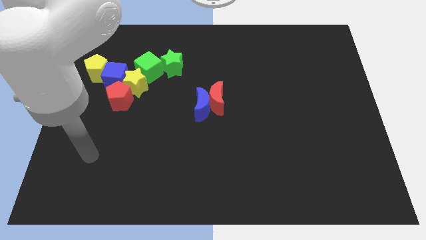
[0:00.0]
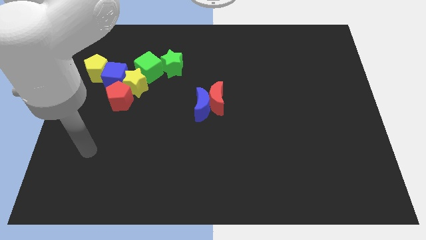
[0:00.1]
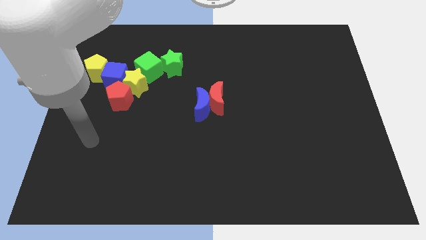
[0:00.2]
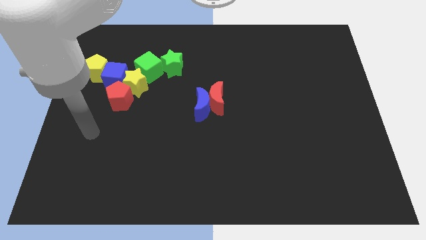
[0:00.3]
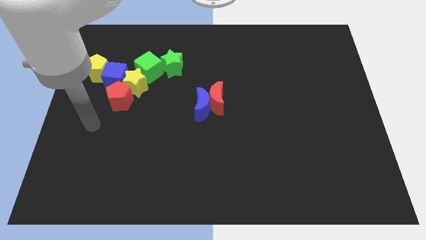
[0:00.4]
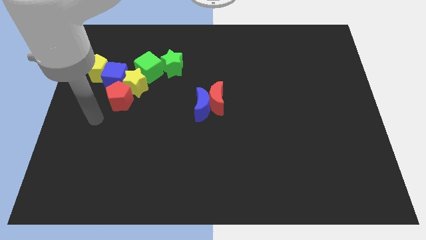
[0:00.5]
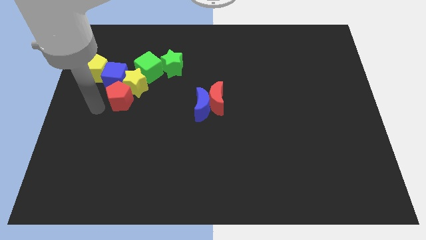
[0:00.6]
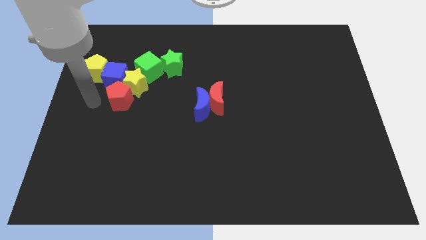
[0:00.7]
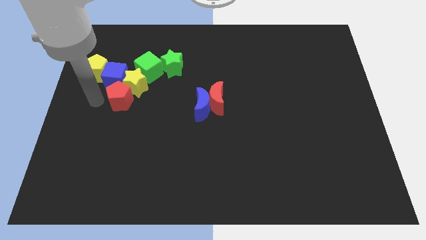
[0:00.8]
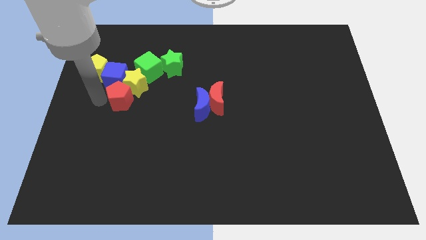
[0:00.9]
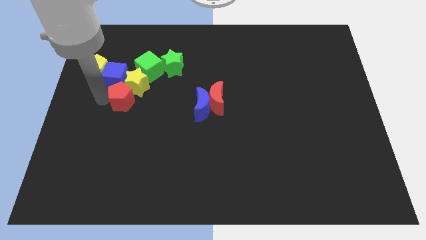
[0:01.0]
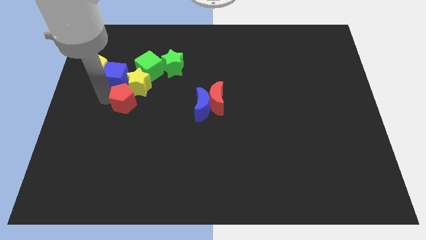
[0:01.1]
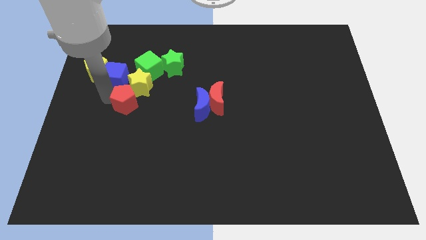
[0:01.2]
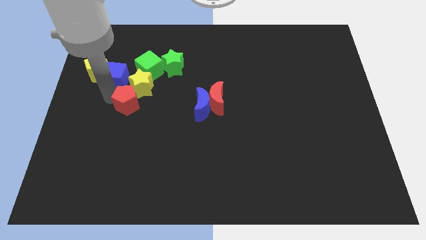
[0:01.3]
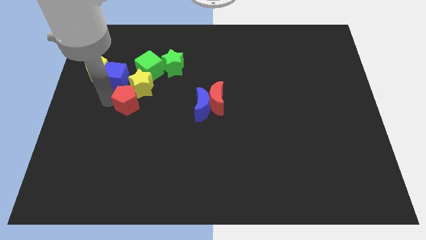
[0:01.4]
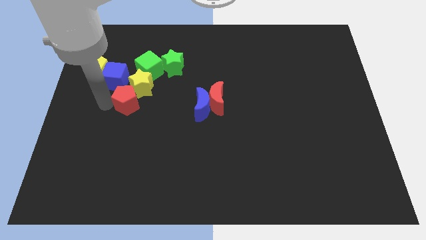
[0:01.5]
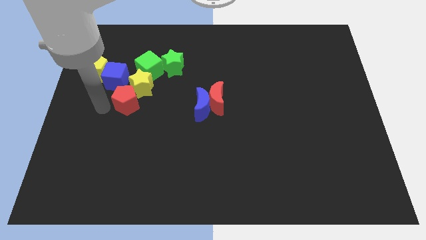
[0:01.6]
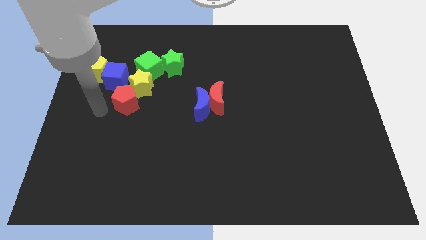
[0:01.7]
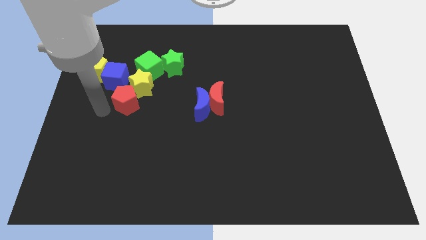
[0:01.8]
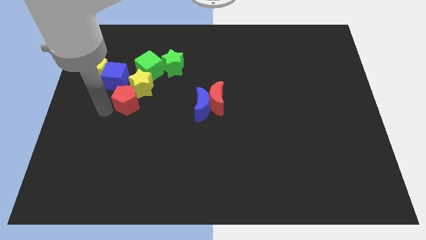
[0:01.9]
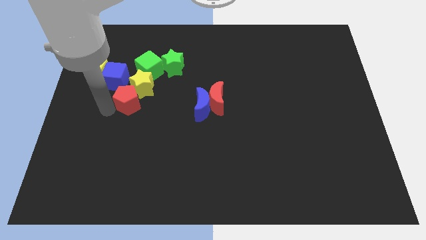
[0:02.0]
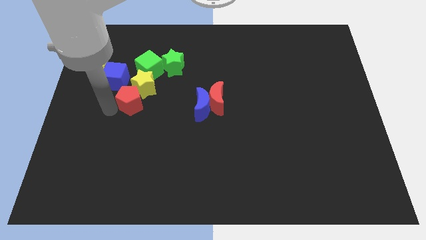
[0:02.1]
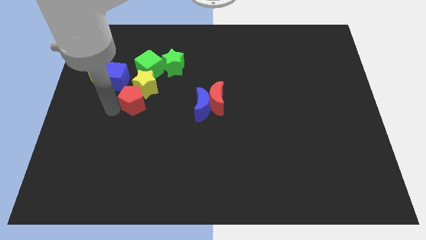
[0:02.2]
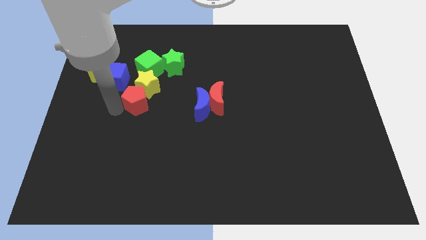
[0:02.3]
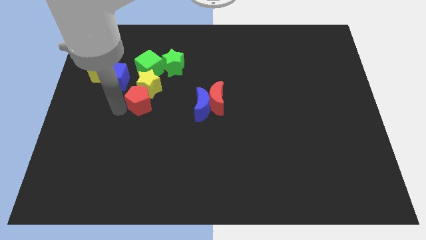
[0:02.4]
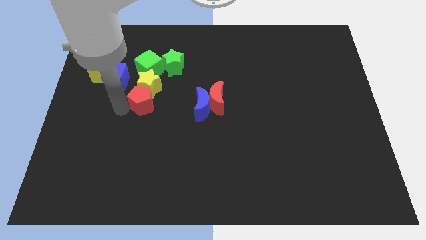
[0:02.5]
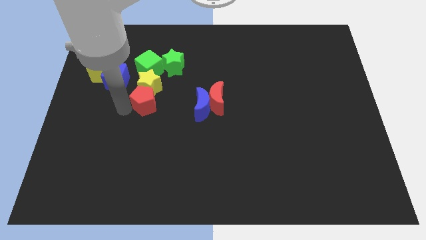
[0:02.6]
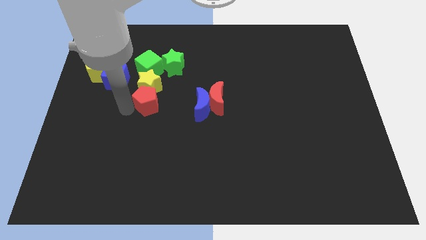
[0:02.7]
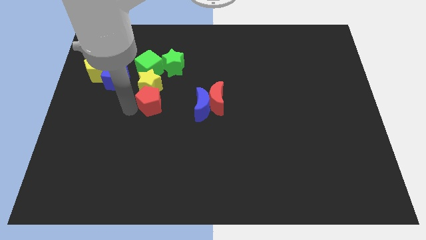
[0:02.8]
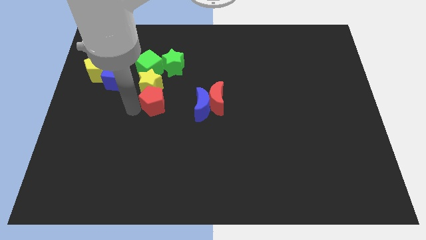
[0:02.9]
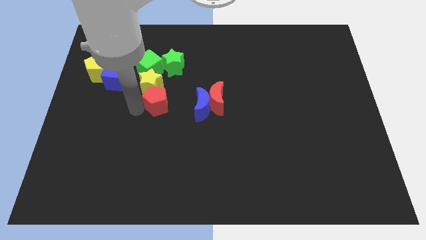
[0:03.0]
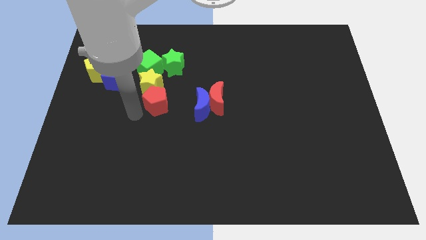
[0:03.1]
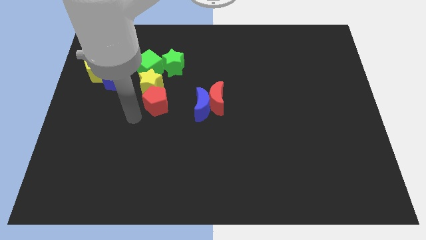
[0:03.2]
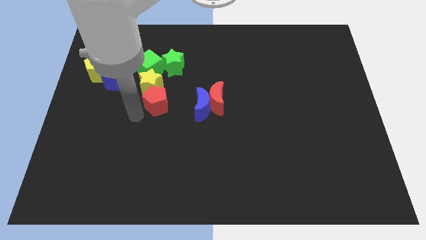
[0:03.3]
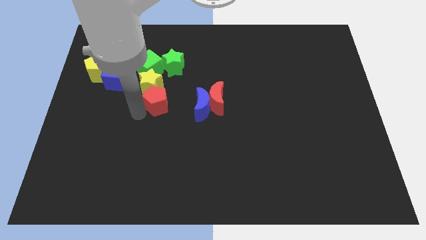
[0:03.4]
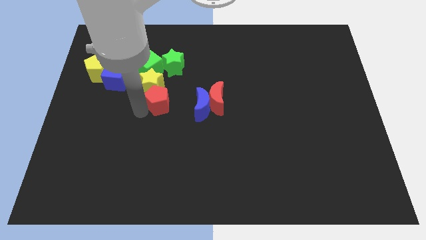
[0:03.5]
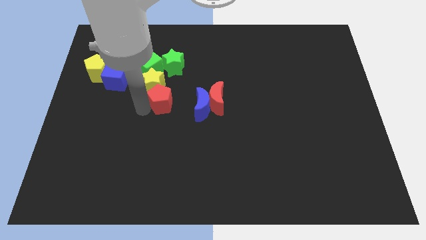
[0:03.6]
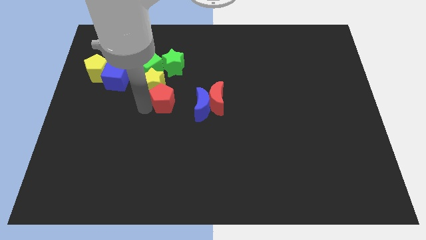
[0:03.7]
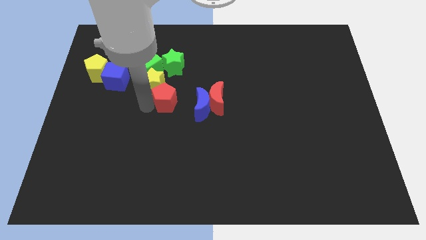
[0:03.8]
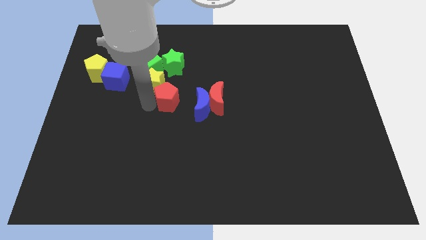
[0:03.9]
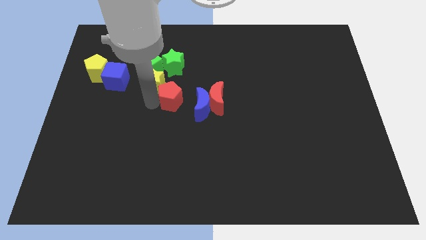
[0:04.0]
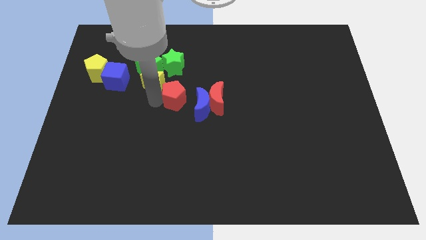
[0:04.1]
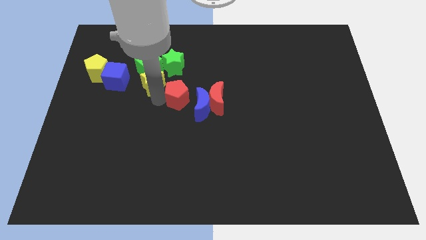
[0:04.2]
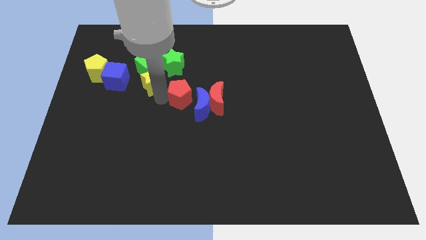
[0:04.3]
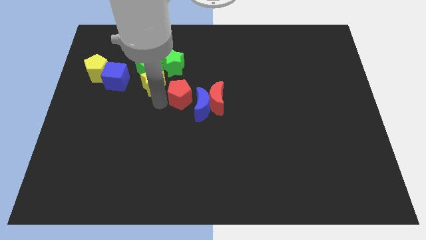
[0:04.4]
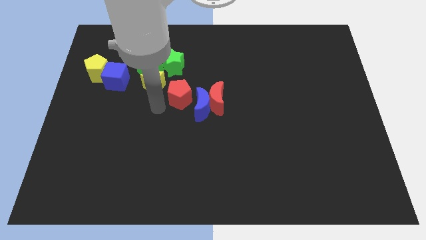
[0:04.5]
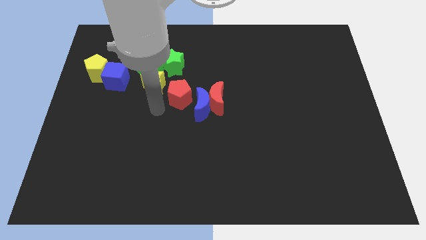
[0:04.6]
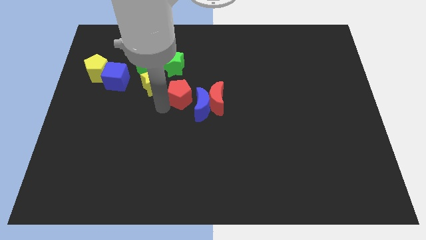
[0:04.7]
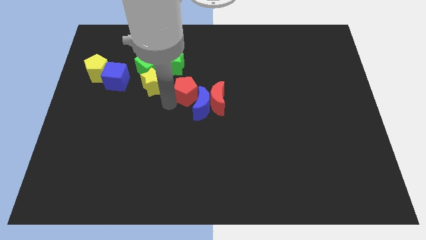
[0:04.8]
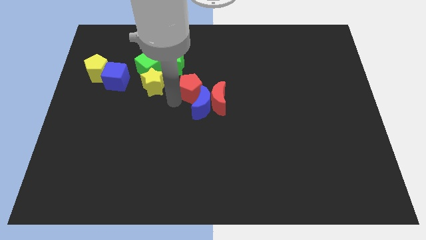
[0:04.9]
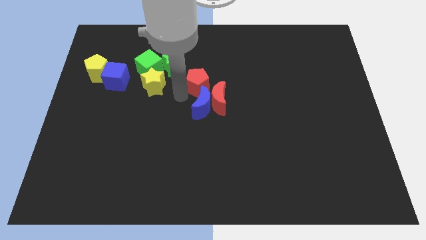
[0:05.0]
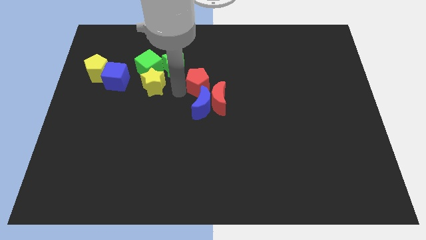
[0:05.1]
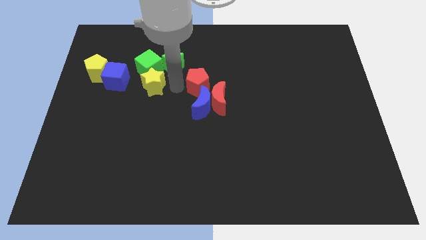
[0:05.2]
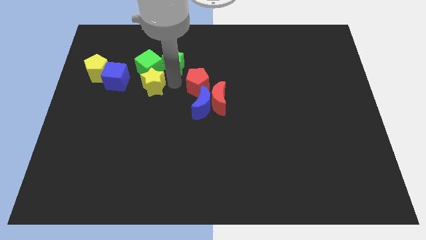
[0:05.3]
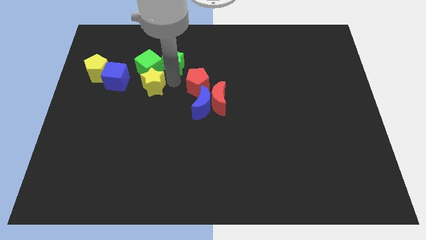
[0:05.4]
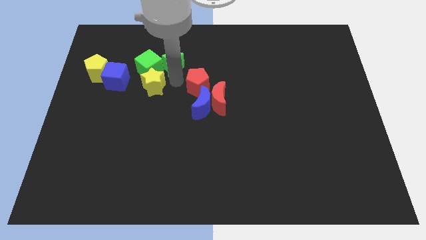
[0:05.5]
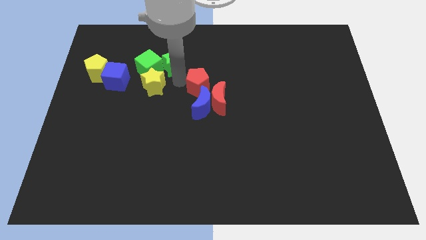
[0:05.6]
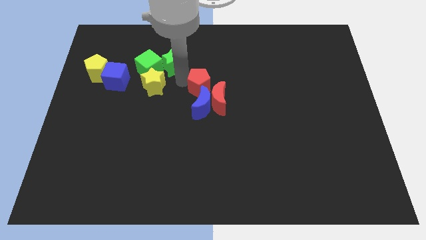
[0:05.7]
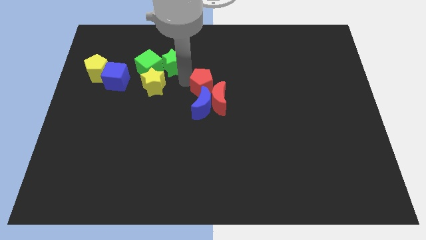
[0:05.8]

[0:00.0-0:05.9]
put the red pentagon to the top right side of the blue moon

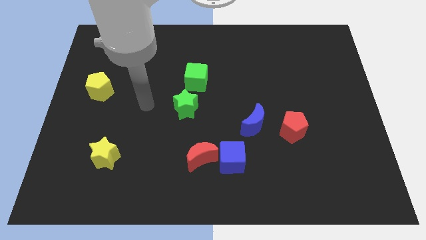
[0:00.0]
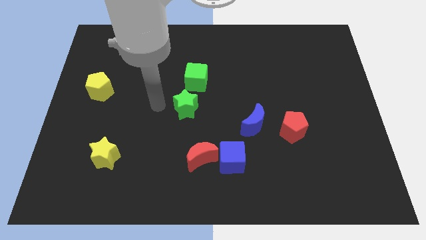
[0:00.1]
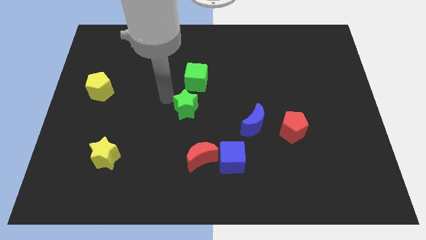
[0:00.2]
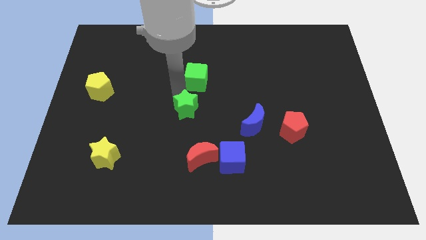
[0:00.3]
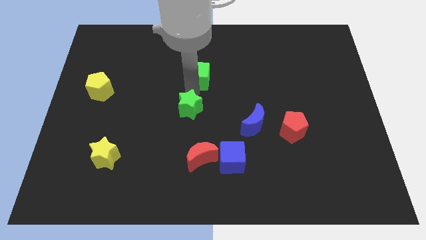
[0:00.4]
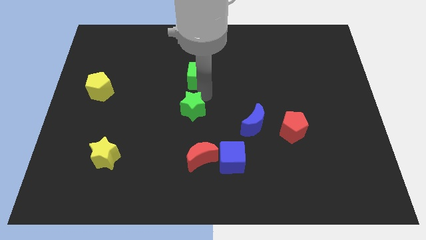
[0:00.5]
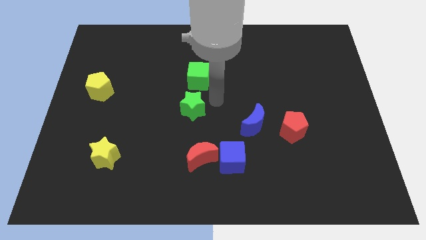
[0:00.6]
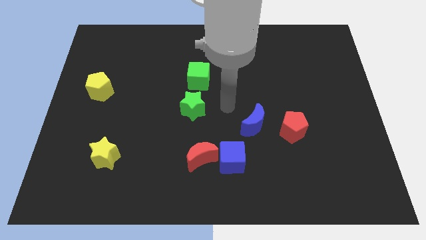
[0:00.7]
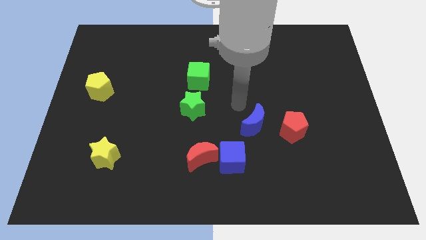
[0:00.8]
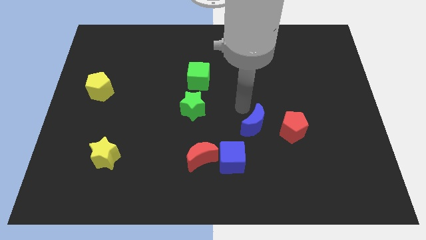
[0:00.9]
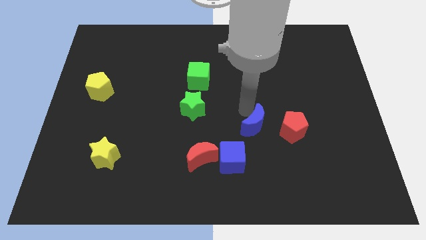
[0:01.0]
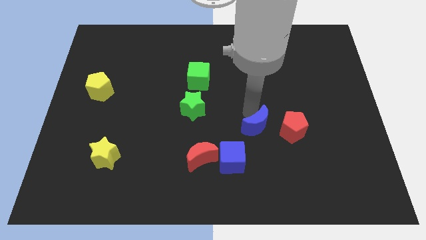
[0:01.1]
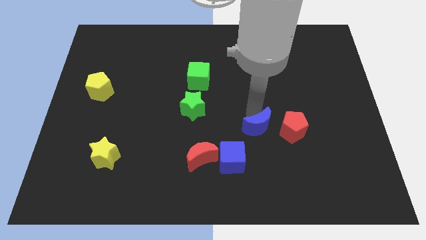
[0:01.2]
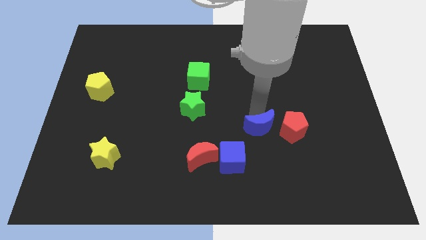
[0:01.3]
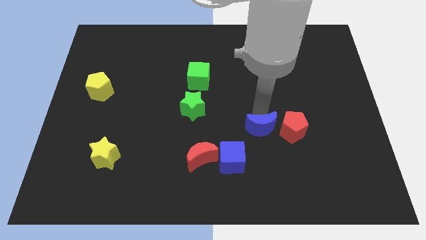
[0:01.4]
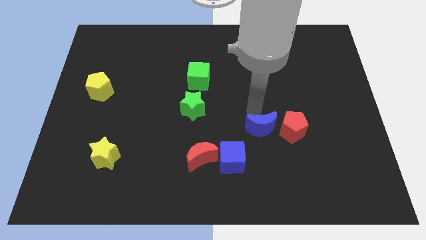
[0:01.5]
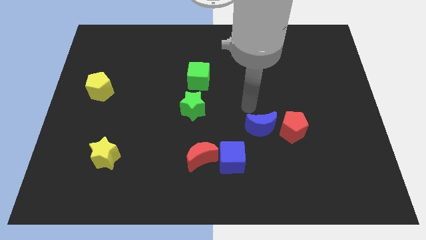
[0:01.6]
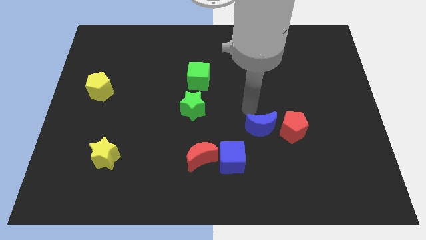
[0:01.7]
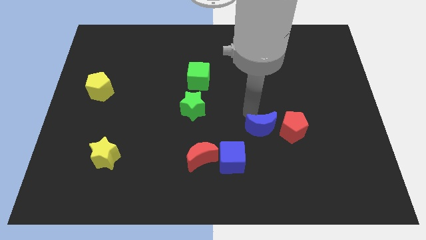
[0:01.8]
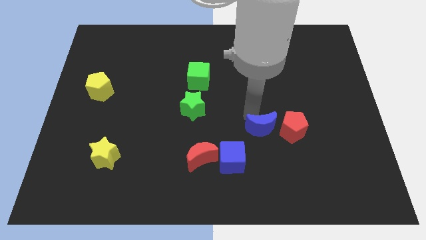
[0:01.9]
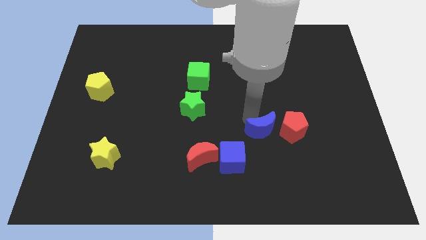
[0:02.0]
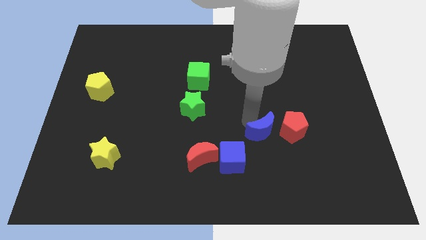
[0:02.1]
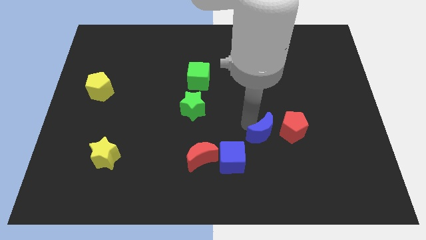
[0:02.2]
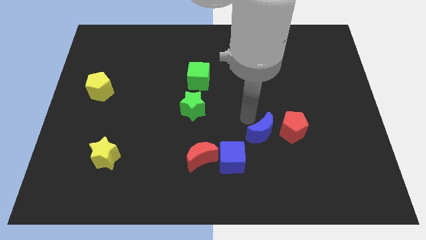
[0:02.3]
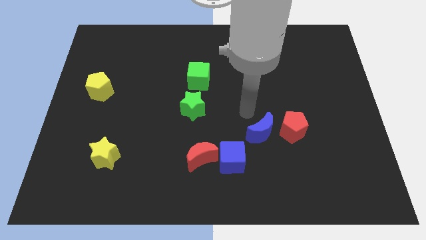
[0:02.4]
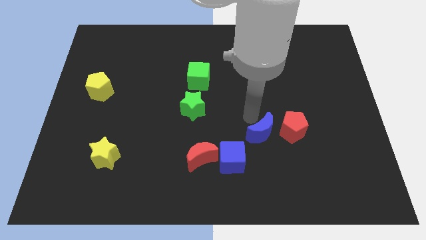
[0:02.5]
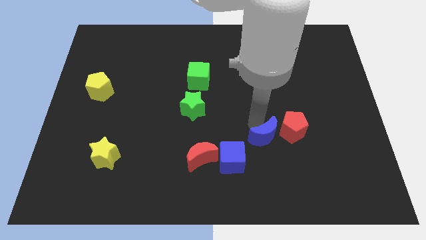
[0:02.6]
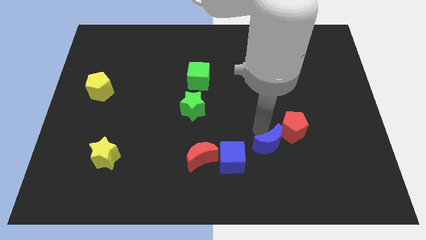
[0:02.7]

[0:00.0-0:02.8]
put the blue moon right of the blue cube
